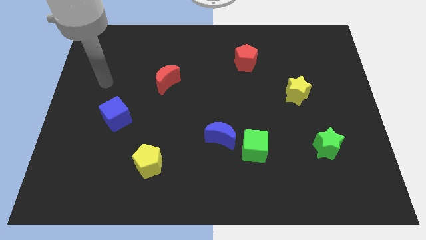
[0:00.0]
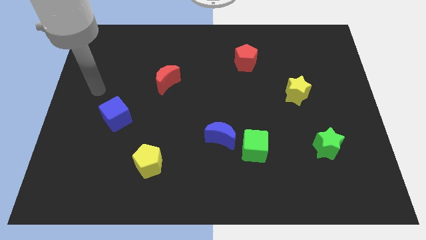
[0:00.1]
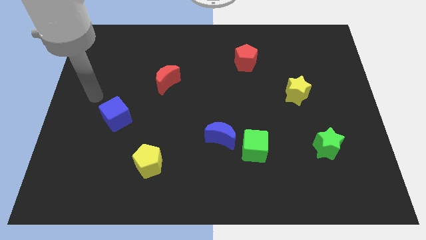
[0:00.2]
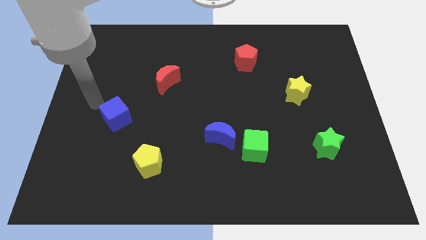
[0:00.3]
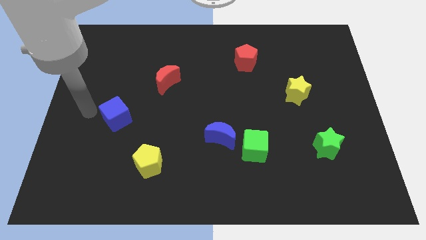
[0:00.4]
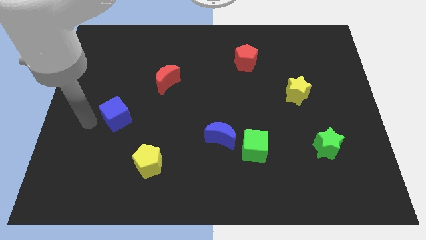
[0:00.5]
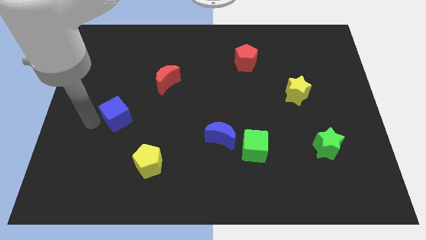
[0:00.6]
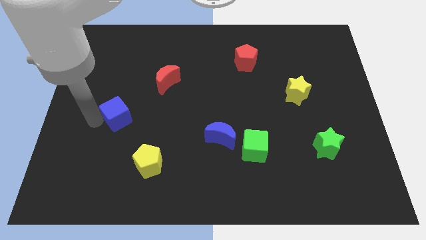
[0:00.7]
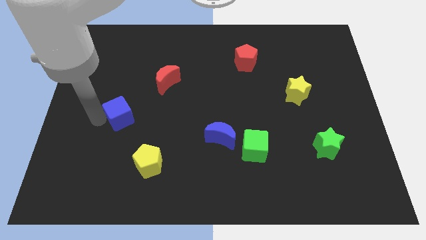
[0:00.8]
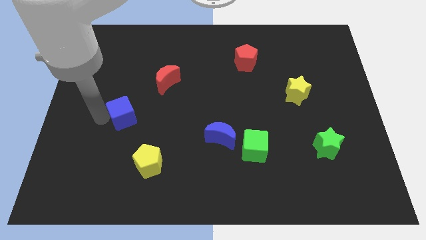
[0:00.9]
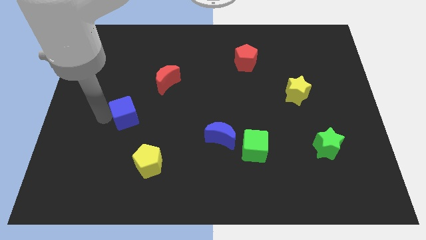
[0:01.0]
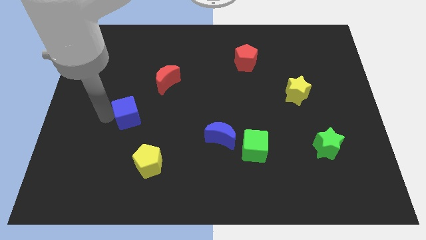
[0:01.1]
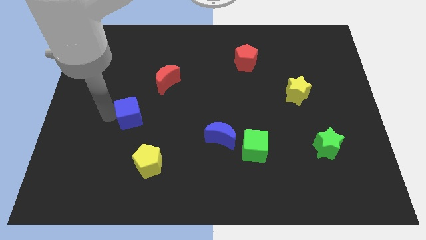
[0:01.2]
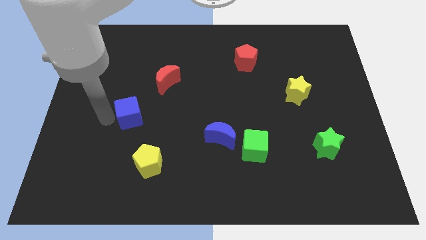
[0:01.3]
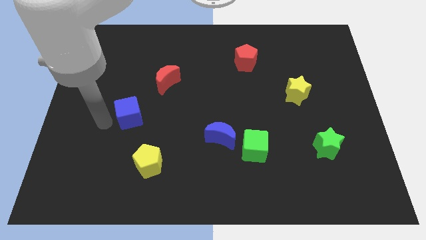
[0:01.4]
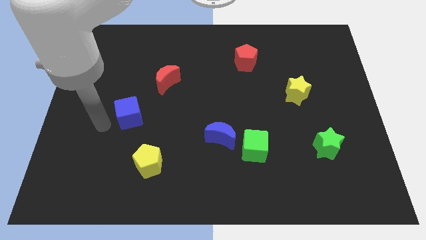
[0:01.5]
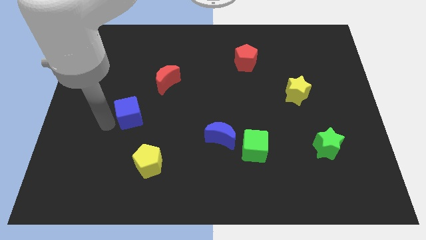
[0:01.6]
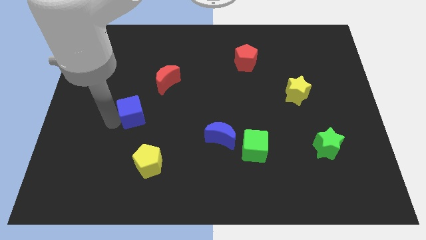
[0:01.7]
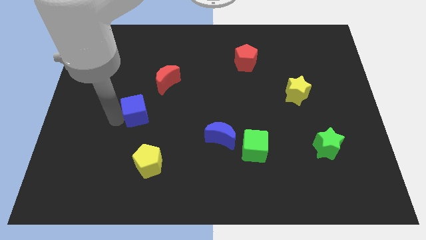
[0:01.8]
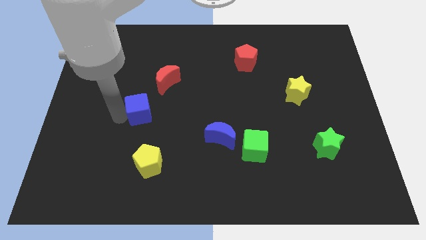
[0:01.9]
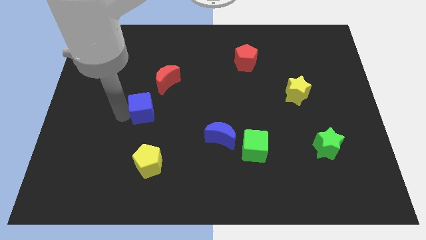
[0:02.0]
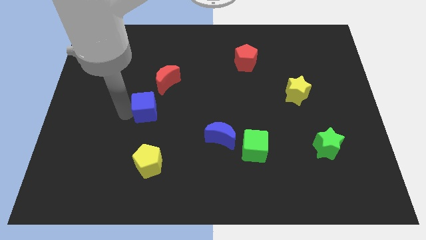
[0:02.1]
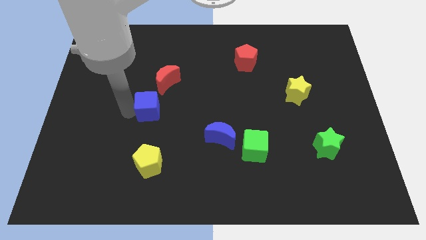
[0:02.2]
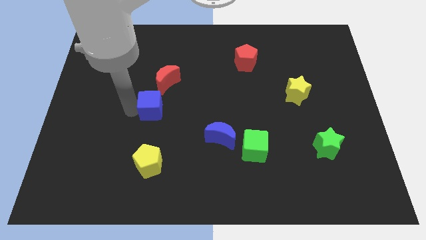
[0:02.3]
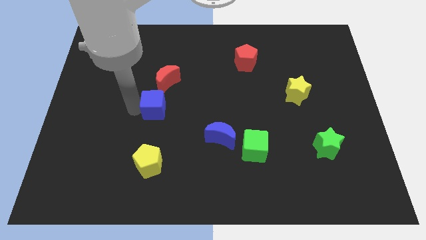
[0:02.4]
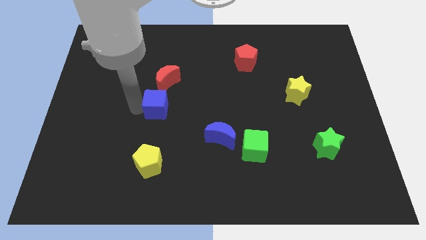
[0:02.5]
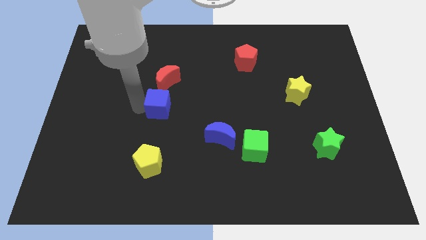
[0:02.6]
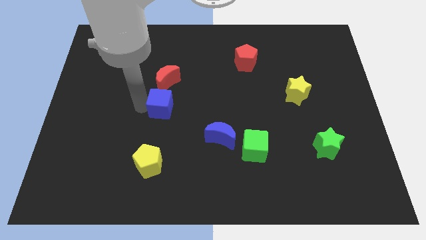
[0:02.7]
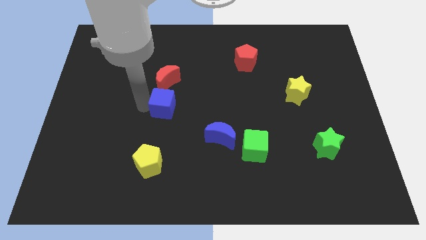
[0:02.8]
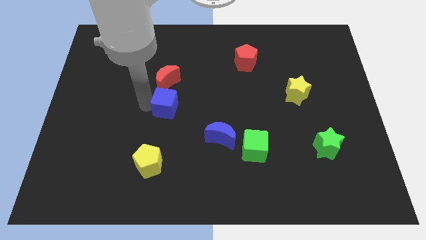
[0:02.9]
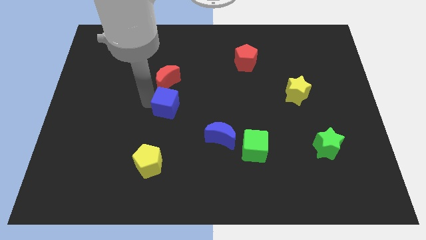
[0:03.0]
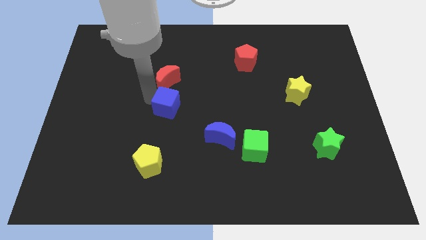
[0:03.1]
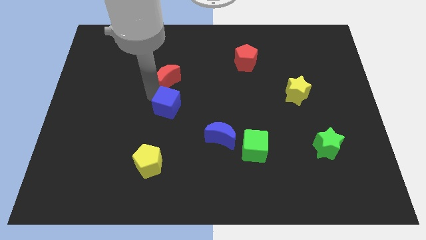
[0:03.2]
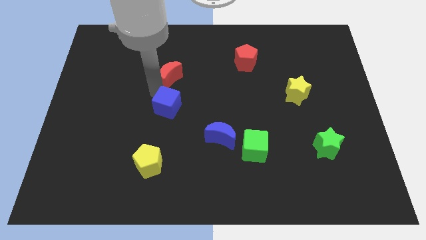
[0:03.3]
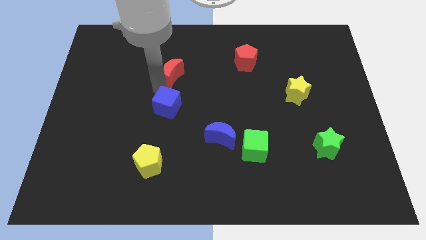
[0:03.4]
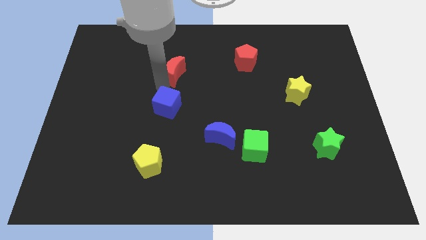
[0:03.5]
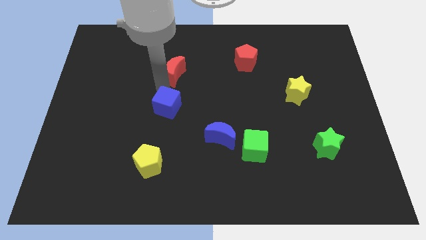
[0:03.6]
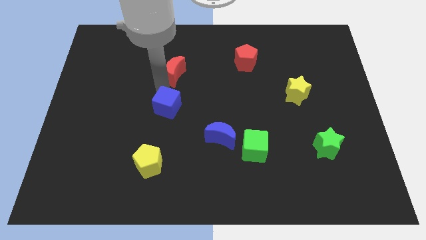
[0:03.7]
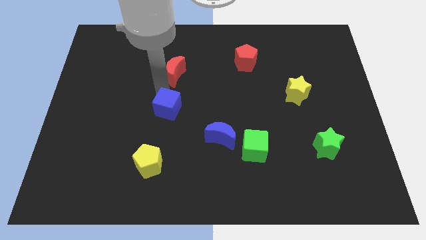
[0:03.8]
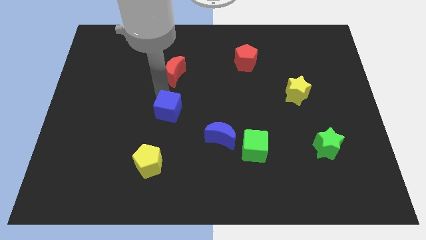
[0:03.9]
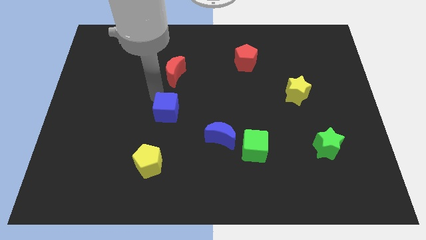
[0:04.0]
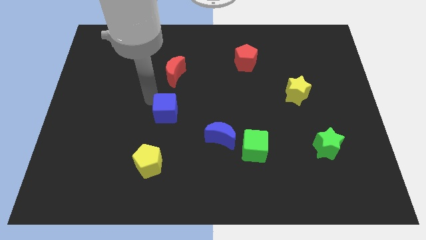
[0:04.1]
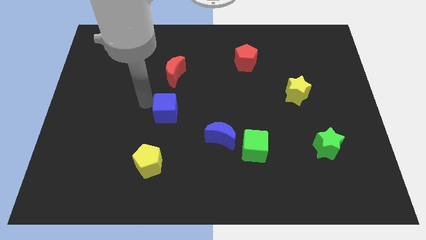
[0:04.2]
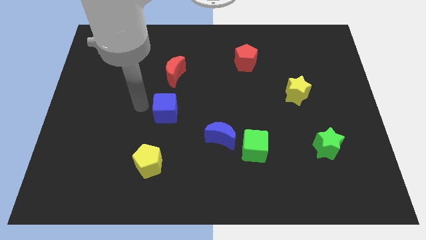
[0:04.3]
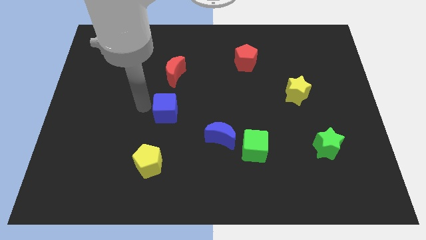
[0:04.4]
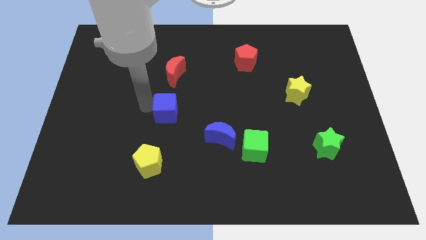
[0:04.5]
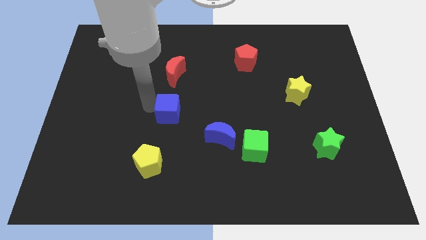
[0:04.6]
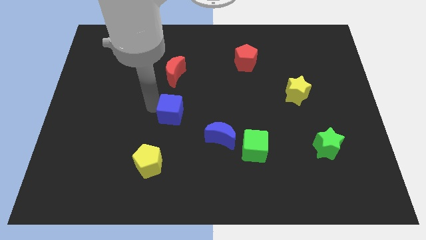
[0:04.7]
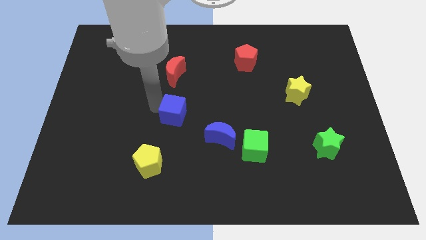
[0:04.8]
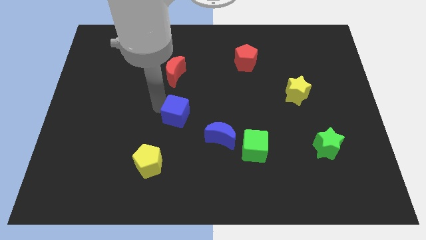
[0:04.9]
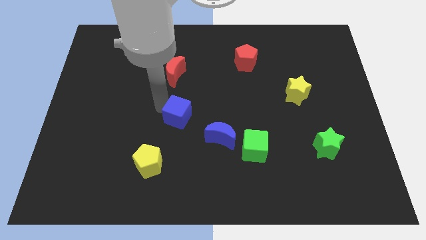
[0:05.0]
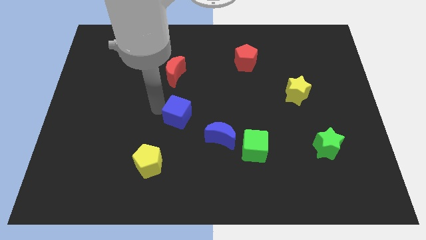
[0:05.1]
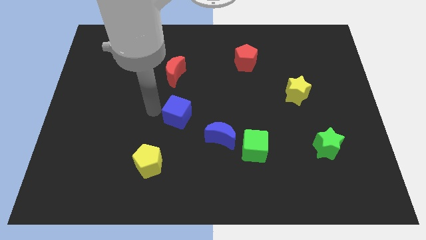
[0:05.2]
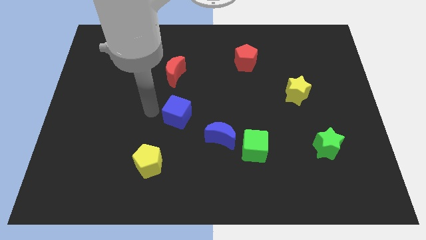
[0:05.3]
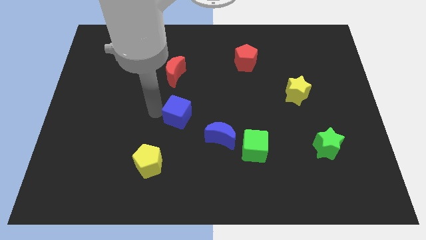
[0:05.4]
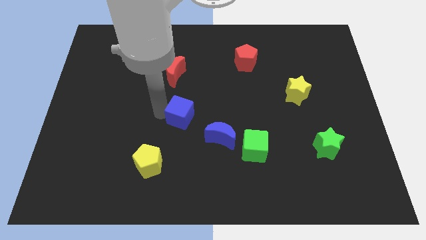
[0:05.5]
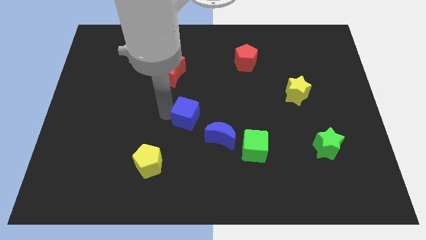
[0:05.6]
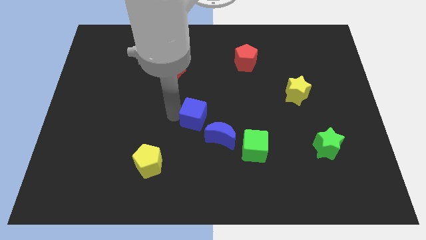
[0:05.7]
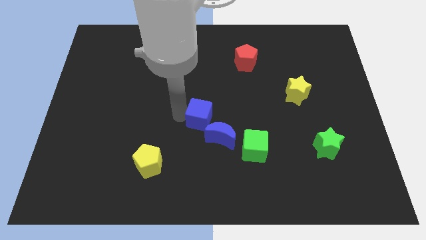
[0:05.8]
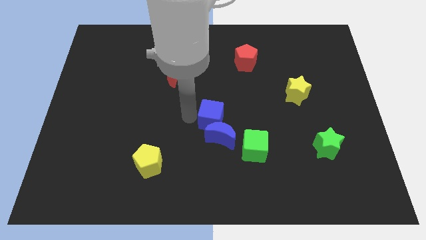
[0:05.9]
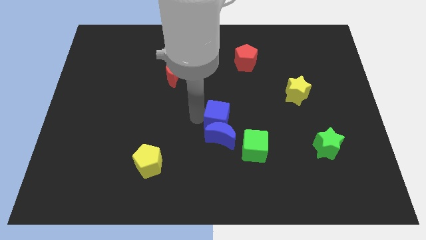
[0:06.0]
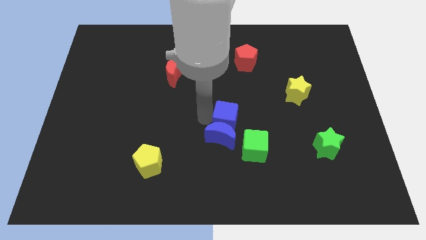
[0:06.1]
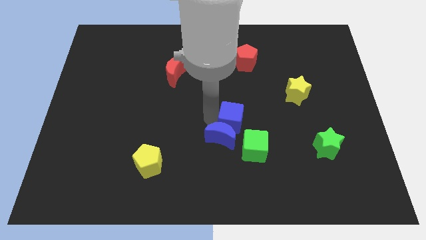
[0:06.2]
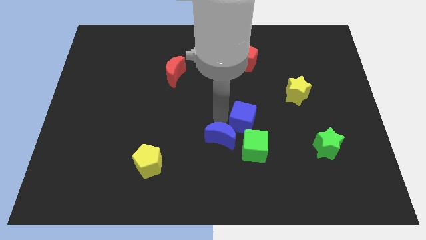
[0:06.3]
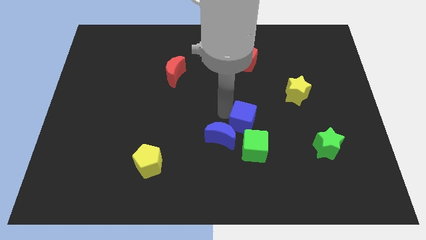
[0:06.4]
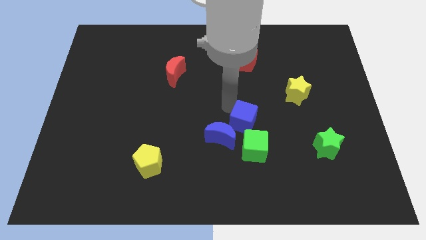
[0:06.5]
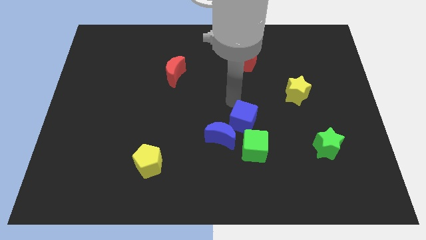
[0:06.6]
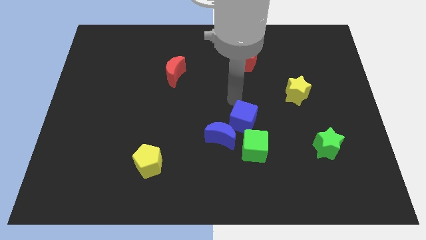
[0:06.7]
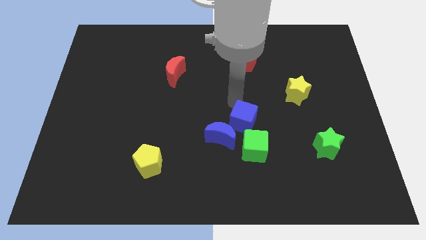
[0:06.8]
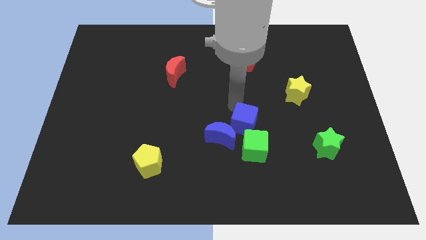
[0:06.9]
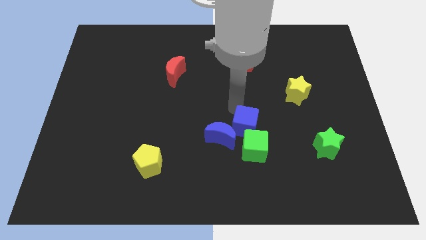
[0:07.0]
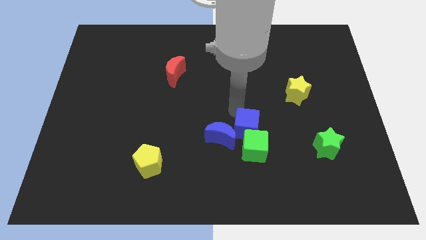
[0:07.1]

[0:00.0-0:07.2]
move the blue cube to the green cube

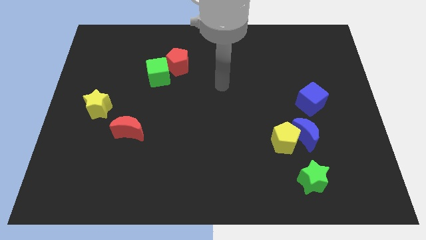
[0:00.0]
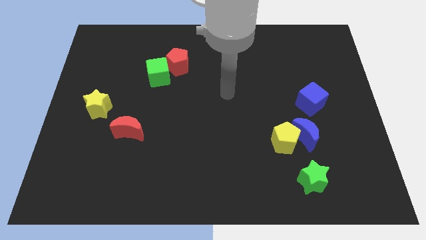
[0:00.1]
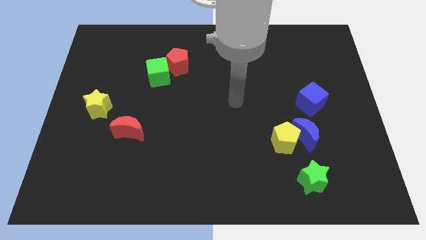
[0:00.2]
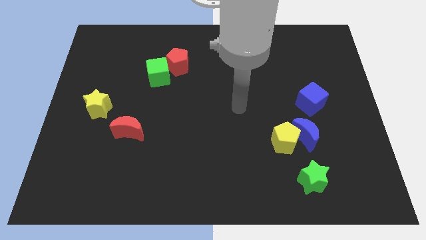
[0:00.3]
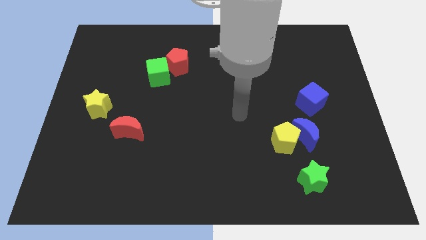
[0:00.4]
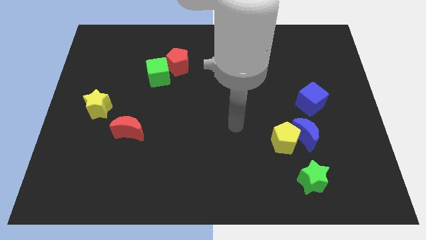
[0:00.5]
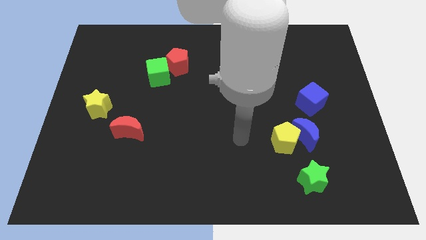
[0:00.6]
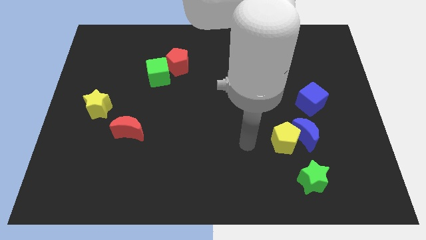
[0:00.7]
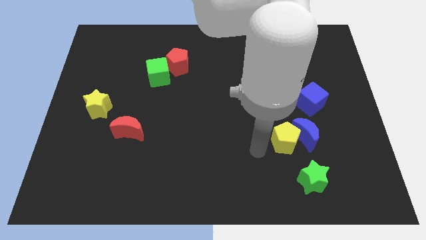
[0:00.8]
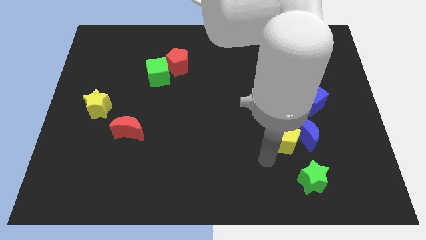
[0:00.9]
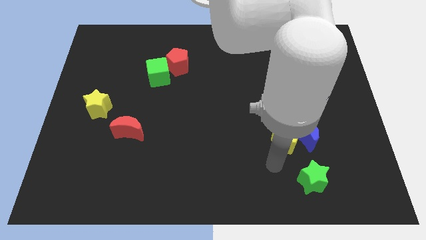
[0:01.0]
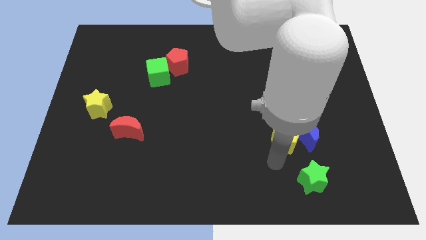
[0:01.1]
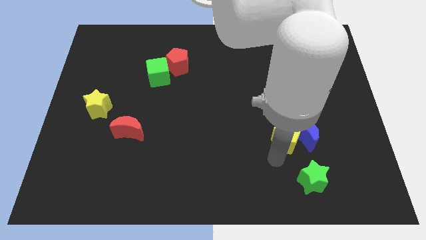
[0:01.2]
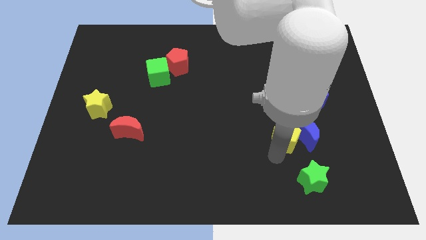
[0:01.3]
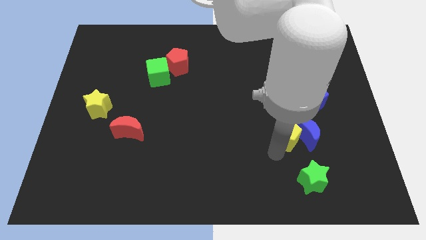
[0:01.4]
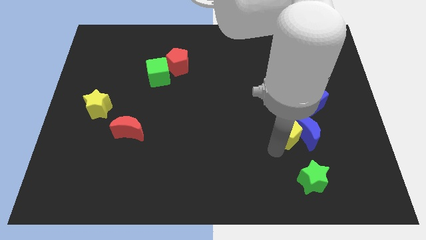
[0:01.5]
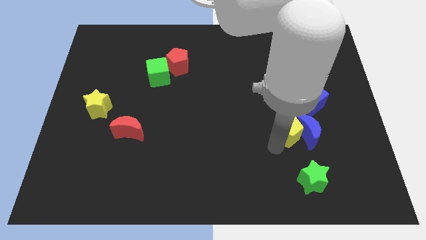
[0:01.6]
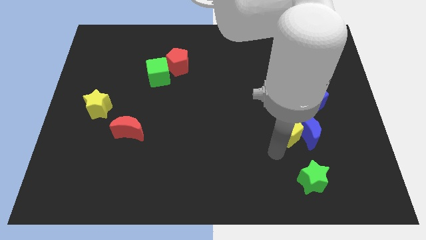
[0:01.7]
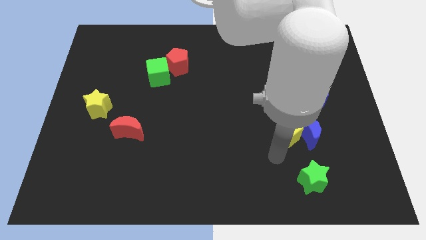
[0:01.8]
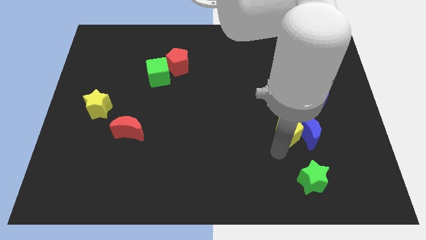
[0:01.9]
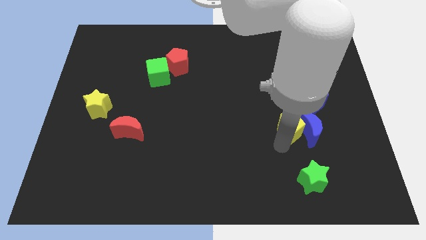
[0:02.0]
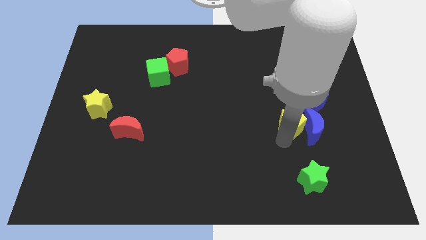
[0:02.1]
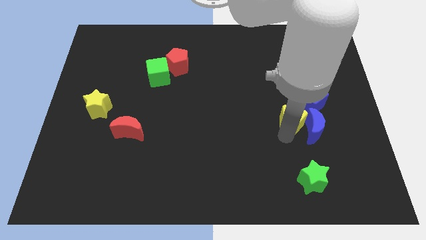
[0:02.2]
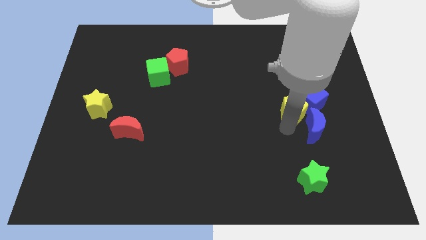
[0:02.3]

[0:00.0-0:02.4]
slide the yellow pentagon towards the blue cube
